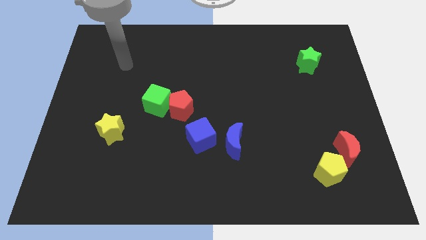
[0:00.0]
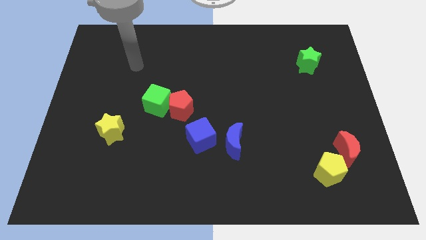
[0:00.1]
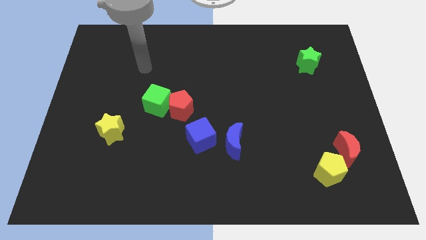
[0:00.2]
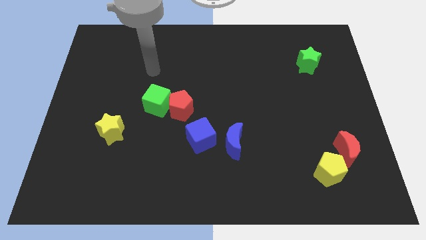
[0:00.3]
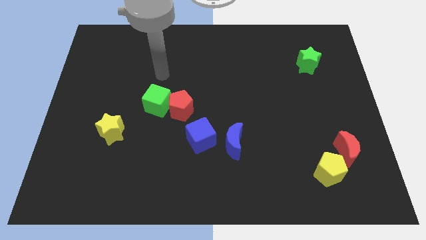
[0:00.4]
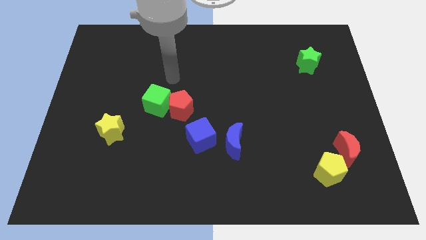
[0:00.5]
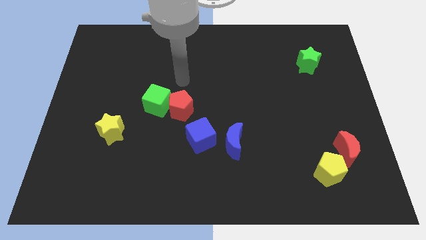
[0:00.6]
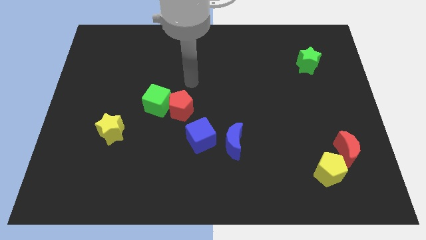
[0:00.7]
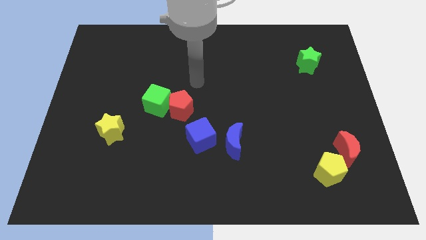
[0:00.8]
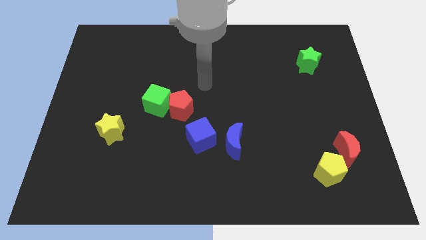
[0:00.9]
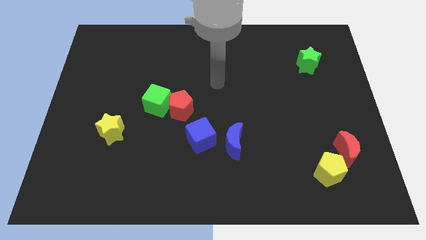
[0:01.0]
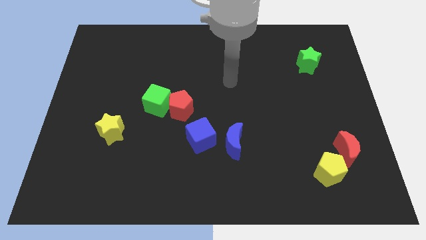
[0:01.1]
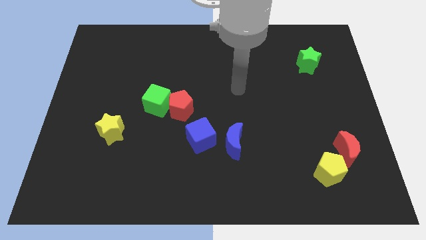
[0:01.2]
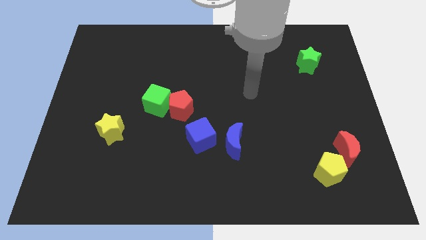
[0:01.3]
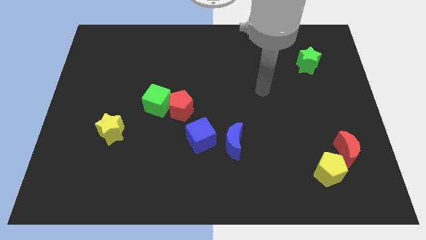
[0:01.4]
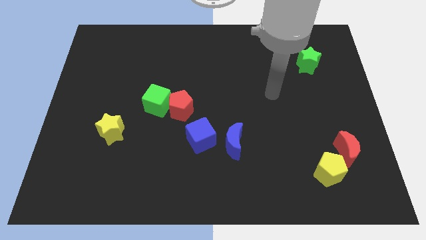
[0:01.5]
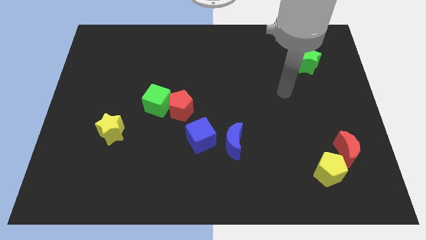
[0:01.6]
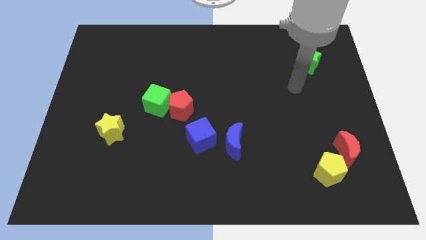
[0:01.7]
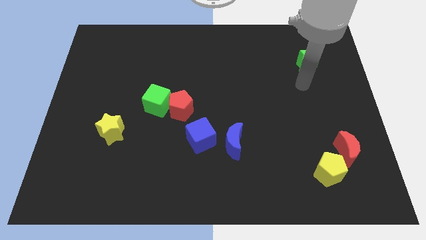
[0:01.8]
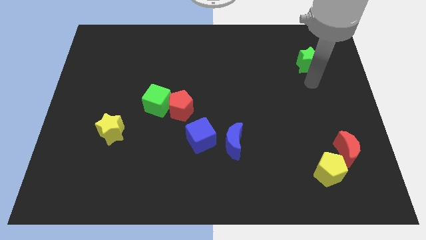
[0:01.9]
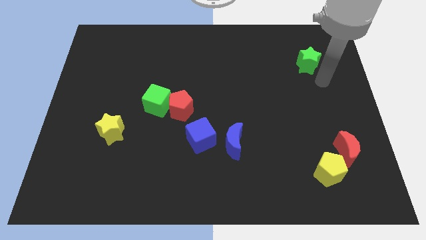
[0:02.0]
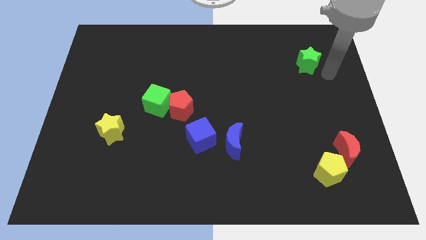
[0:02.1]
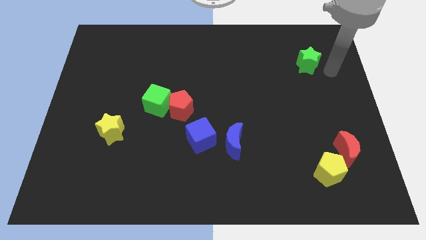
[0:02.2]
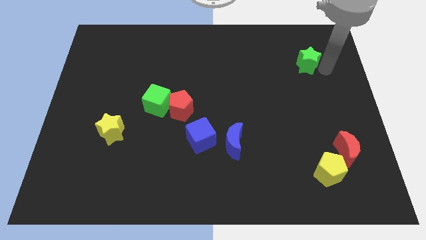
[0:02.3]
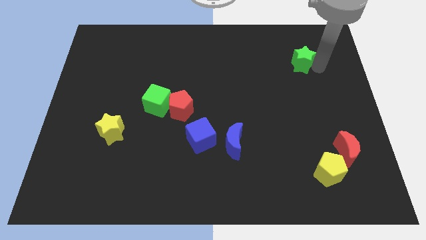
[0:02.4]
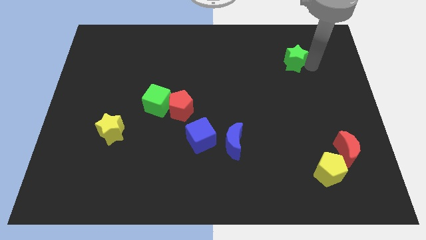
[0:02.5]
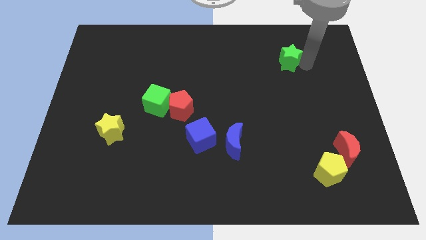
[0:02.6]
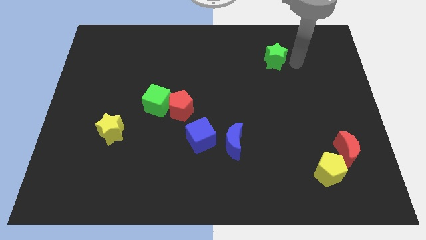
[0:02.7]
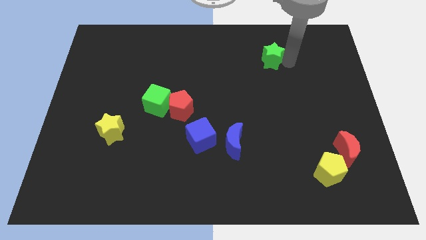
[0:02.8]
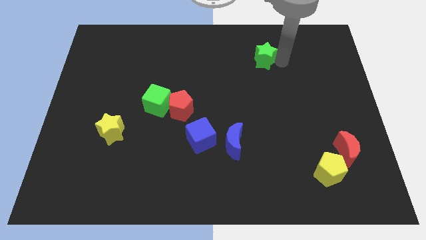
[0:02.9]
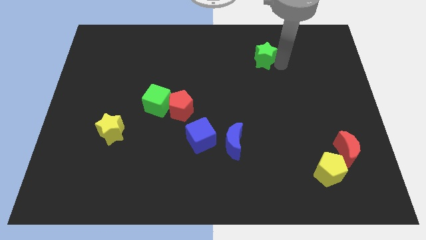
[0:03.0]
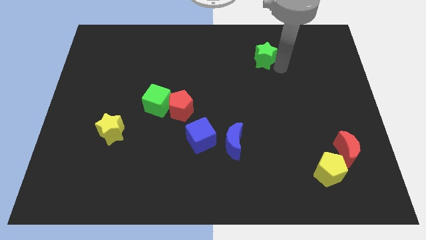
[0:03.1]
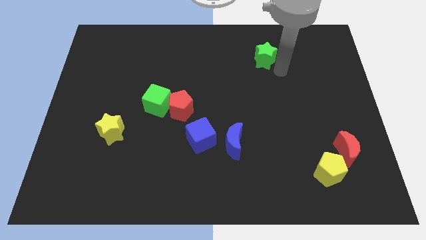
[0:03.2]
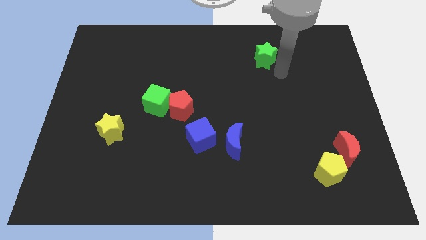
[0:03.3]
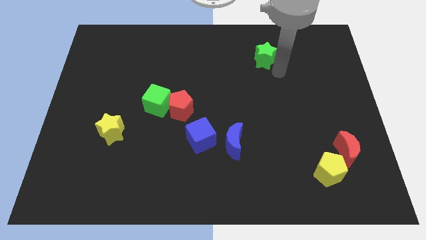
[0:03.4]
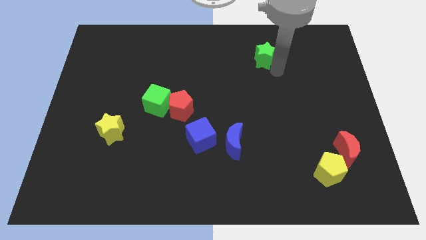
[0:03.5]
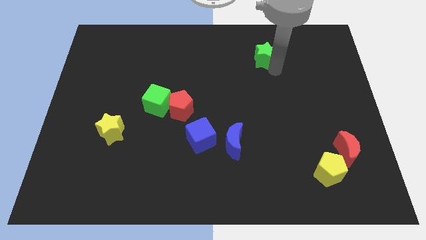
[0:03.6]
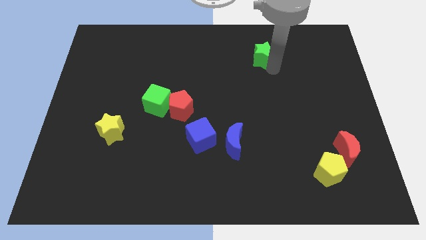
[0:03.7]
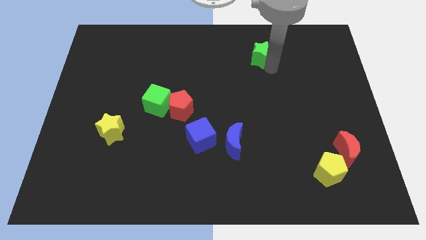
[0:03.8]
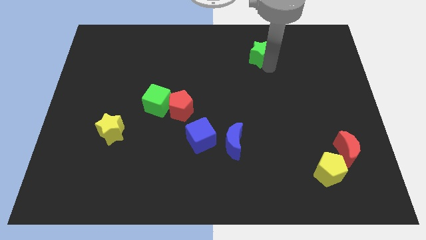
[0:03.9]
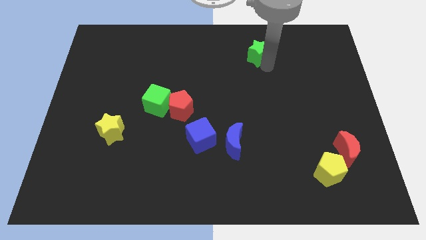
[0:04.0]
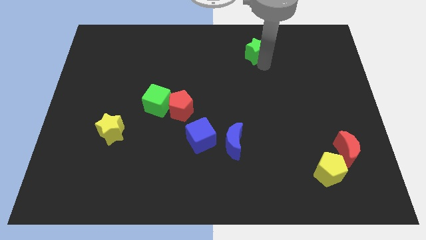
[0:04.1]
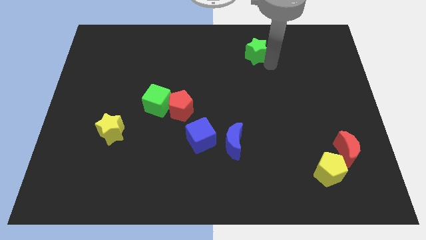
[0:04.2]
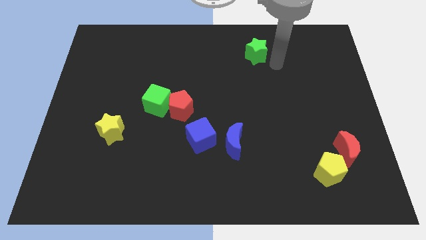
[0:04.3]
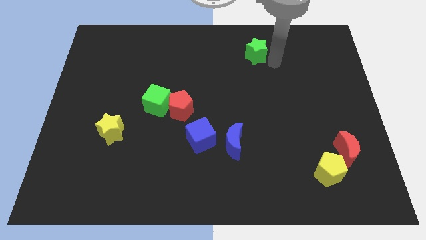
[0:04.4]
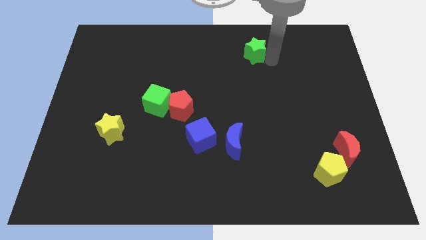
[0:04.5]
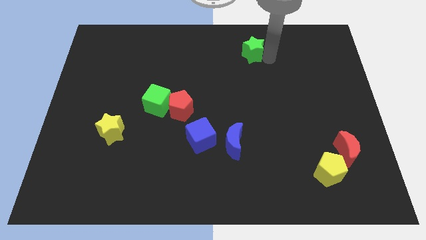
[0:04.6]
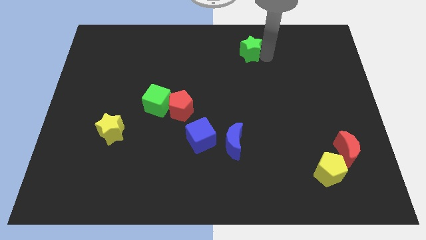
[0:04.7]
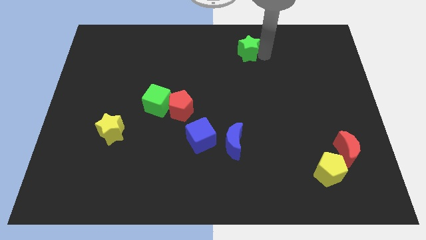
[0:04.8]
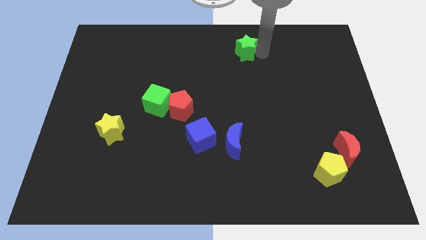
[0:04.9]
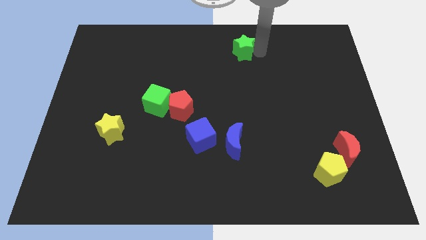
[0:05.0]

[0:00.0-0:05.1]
slide the green star to the top side

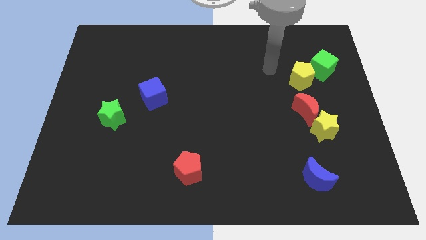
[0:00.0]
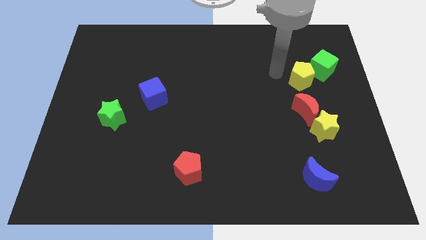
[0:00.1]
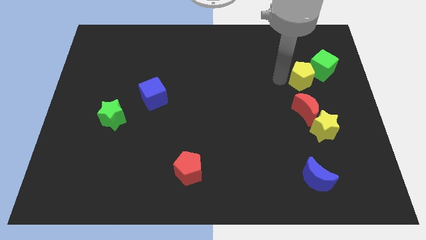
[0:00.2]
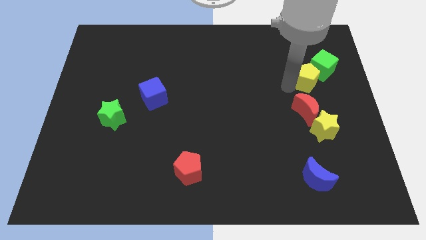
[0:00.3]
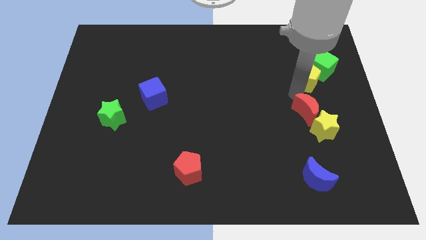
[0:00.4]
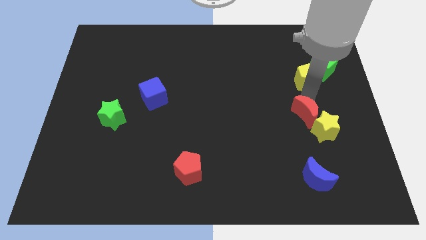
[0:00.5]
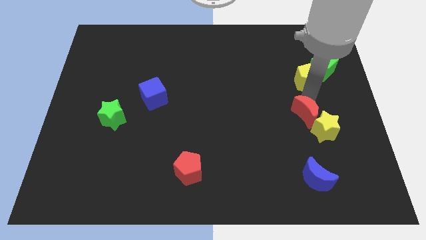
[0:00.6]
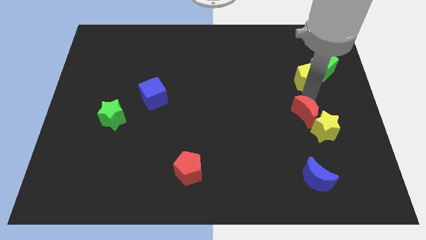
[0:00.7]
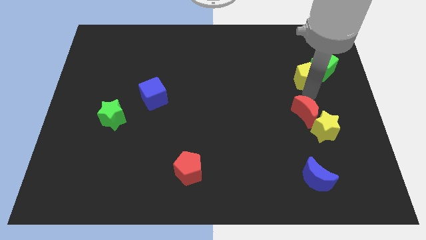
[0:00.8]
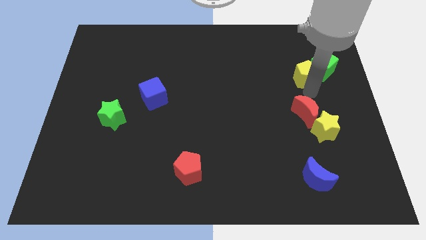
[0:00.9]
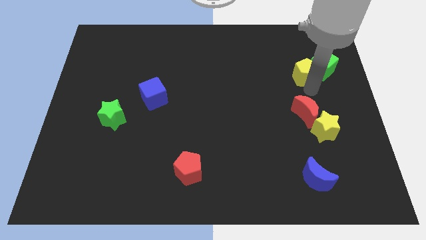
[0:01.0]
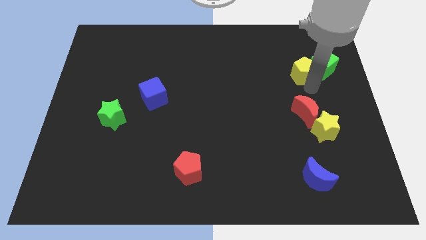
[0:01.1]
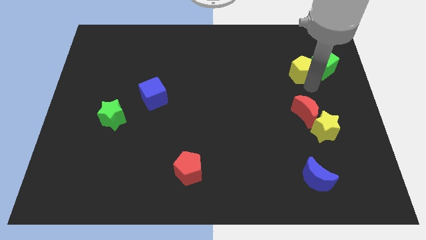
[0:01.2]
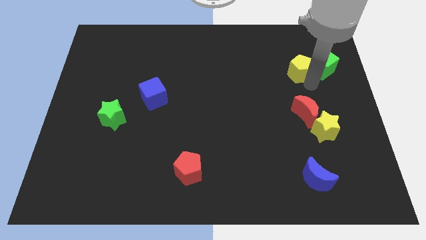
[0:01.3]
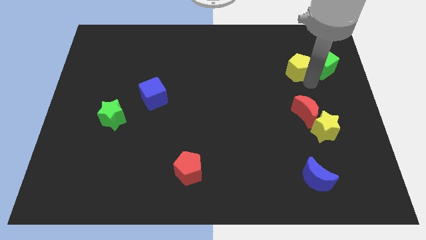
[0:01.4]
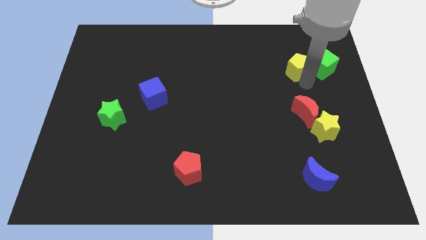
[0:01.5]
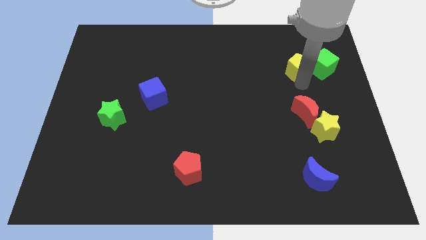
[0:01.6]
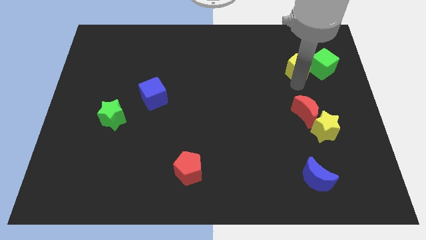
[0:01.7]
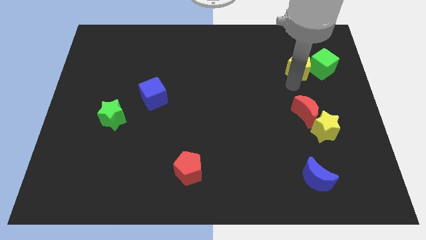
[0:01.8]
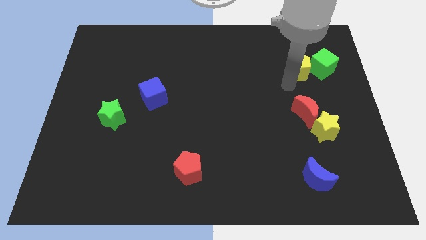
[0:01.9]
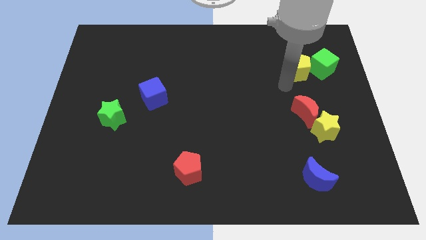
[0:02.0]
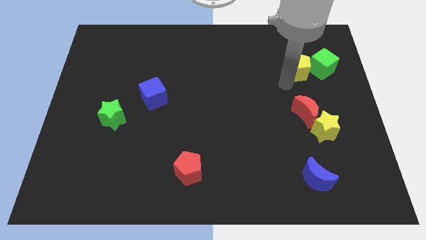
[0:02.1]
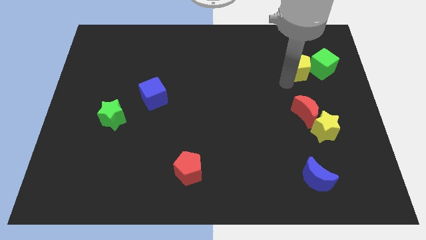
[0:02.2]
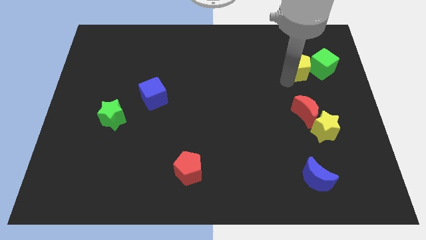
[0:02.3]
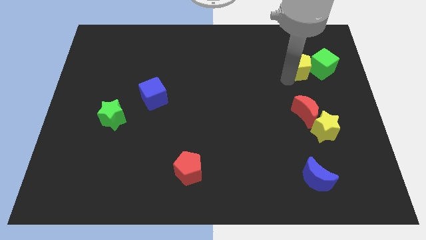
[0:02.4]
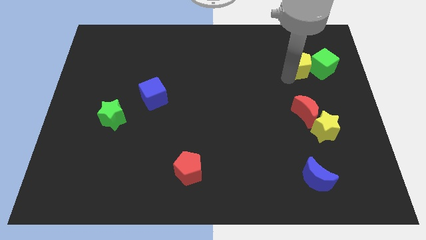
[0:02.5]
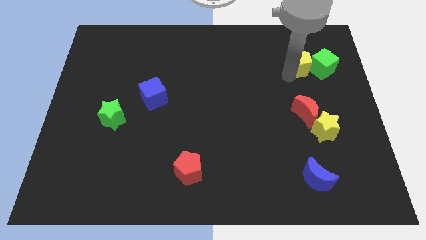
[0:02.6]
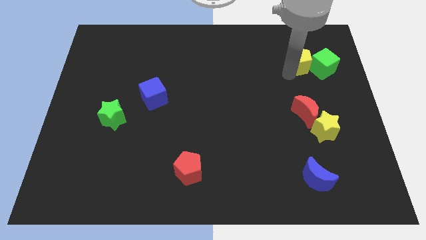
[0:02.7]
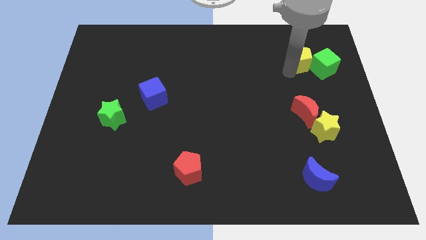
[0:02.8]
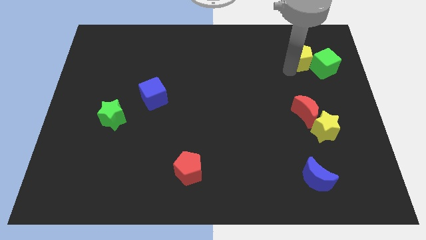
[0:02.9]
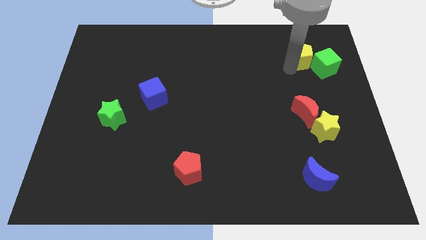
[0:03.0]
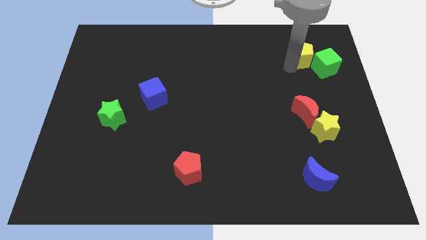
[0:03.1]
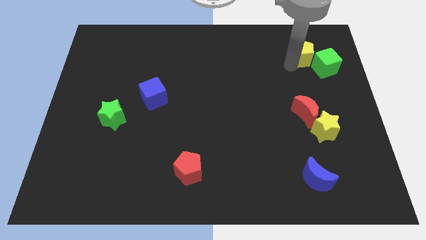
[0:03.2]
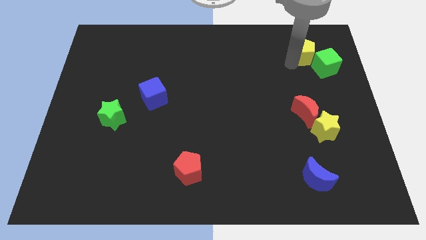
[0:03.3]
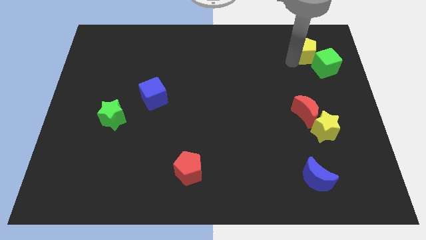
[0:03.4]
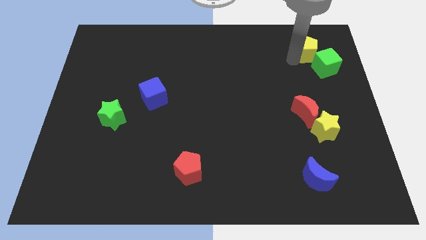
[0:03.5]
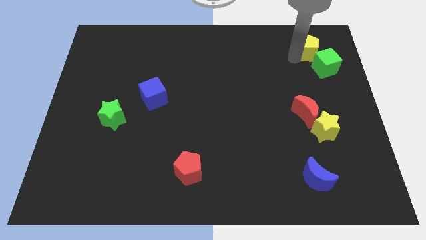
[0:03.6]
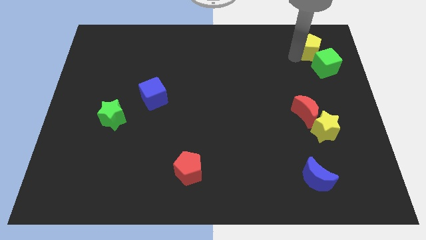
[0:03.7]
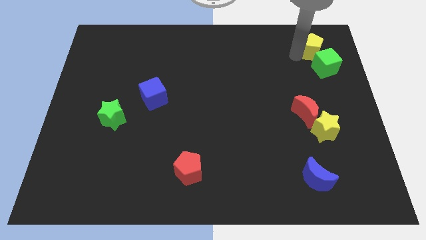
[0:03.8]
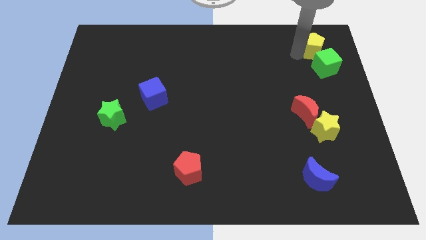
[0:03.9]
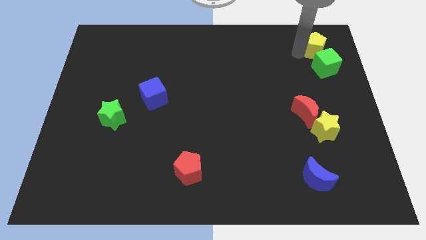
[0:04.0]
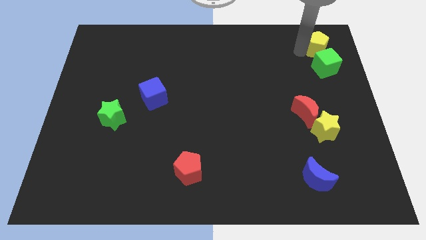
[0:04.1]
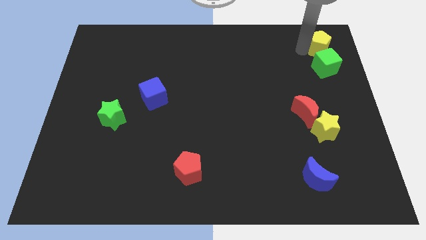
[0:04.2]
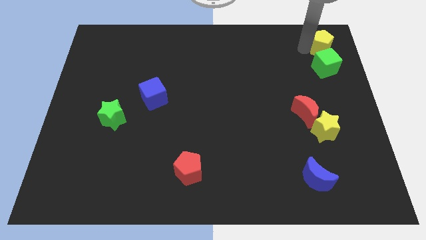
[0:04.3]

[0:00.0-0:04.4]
push the yellow pentagon to the top right corner
